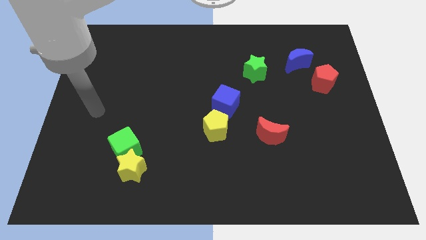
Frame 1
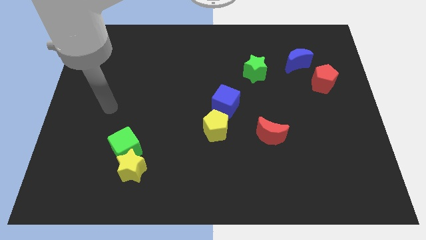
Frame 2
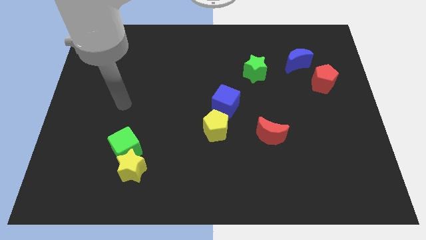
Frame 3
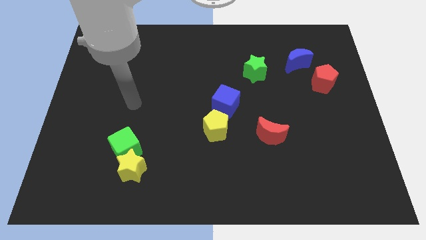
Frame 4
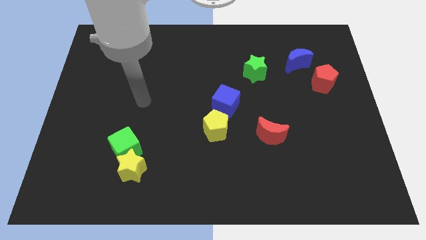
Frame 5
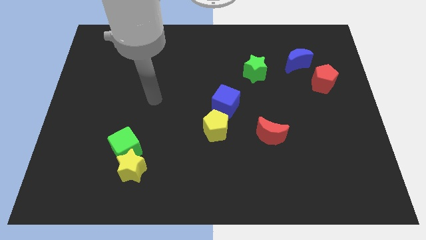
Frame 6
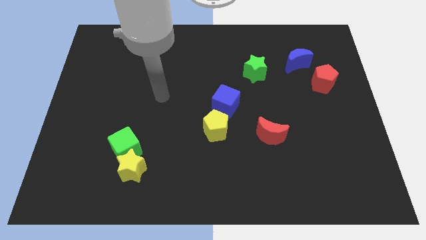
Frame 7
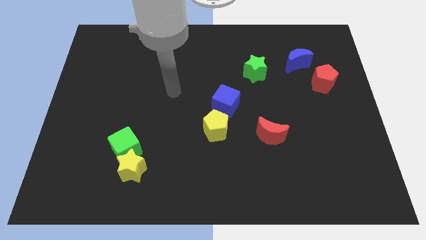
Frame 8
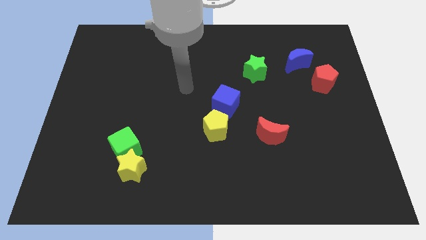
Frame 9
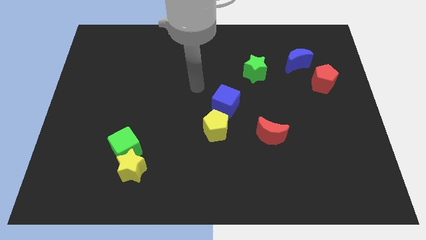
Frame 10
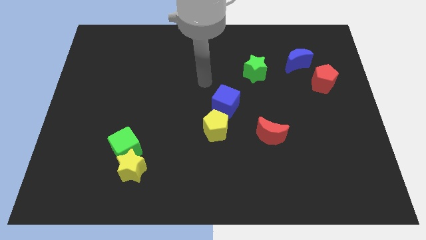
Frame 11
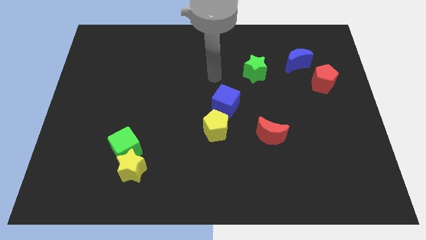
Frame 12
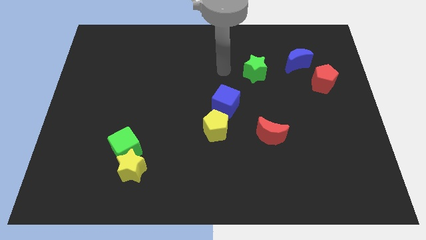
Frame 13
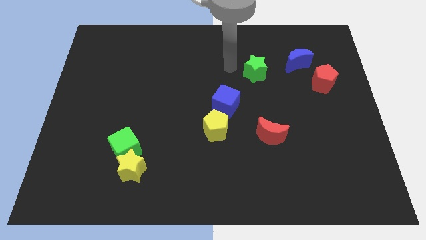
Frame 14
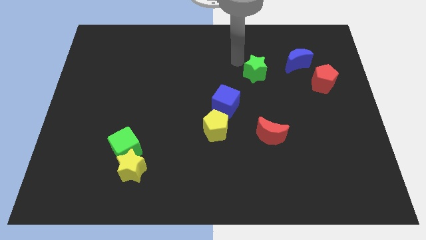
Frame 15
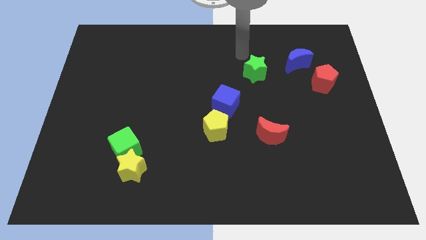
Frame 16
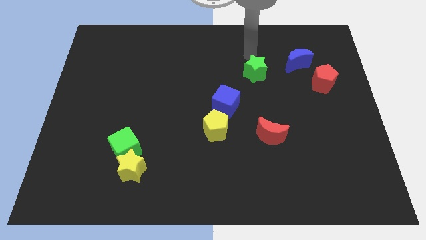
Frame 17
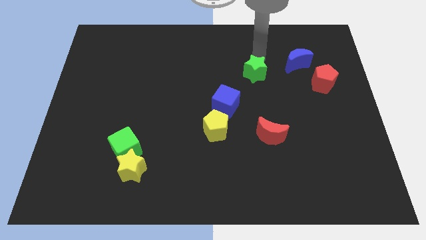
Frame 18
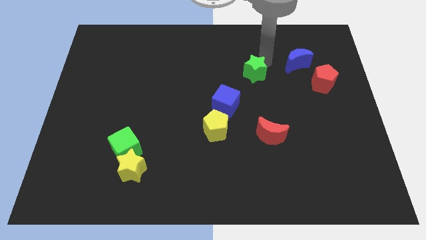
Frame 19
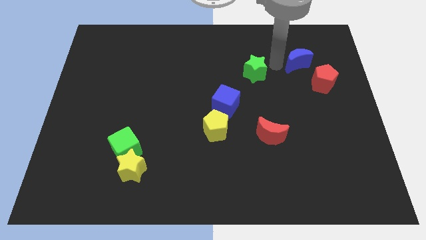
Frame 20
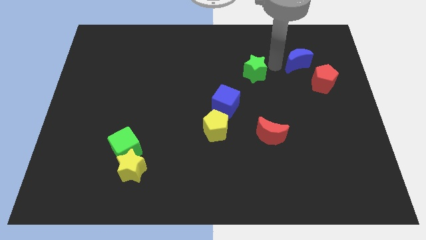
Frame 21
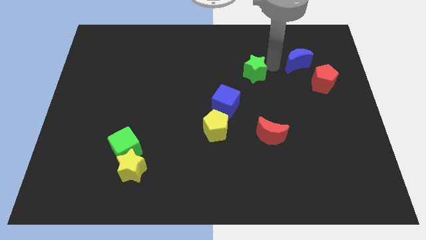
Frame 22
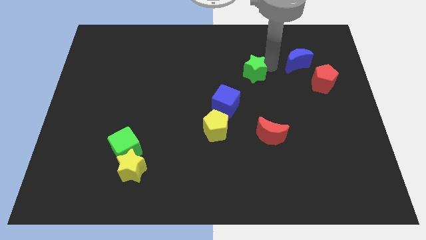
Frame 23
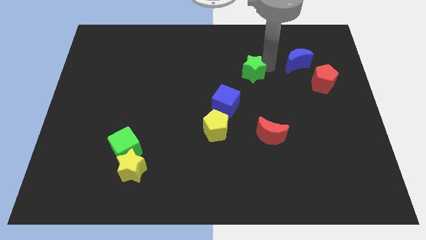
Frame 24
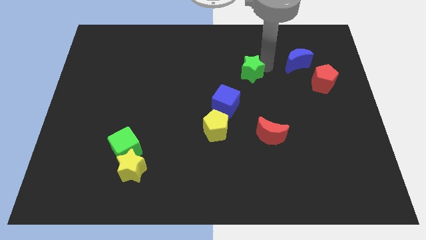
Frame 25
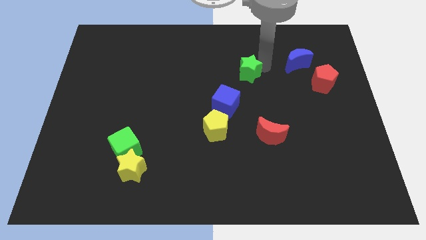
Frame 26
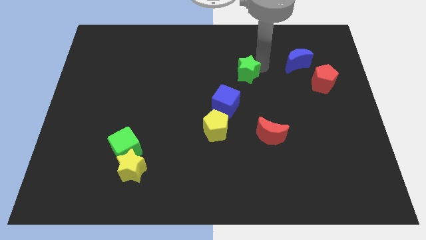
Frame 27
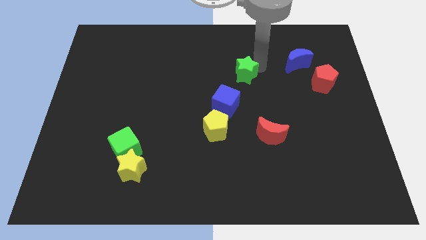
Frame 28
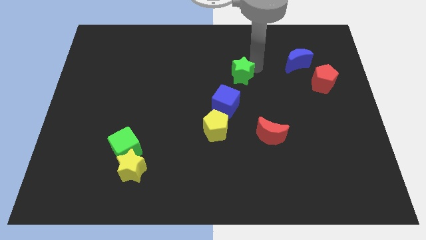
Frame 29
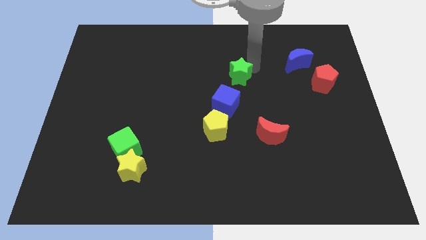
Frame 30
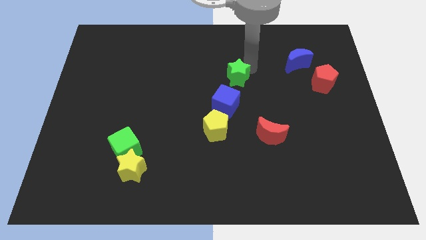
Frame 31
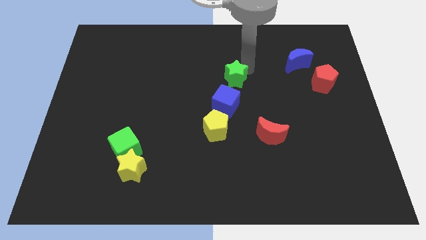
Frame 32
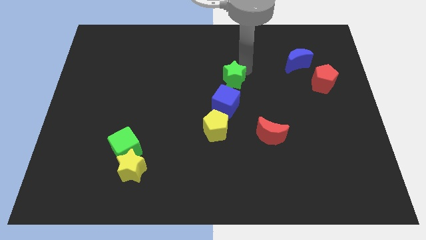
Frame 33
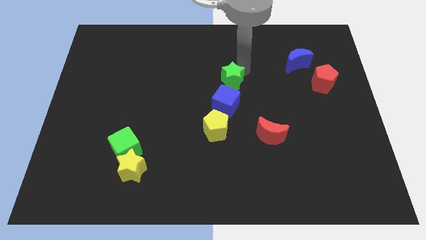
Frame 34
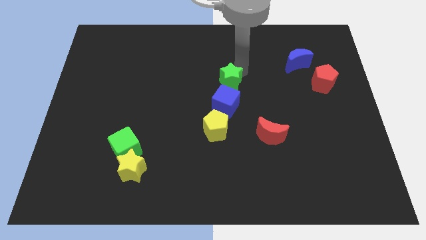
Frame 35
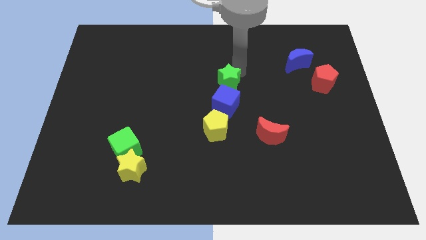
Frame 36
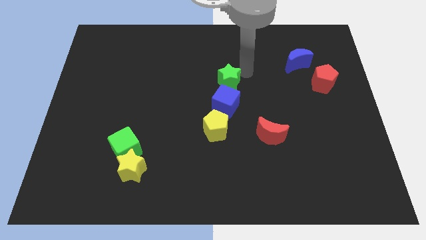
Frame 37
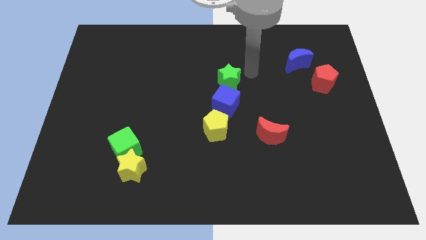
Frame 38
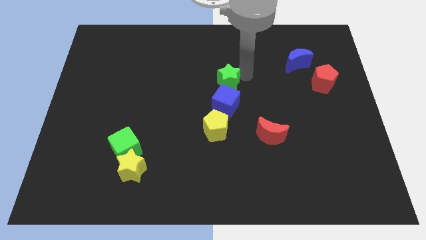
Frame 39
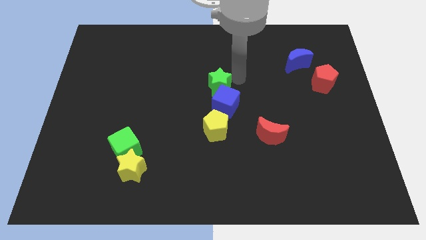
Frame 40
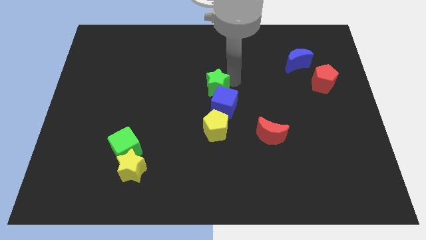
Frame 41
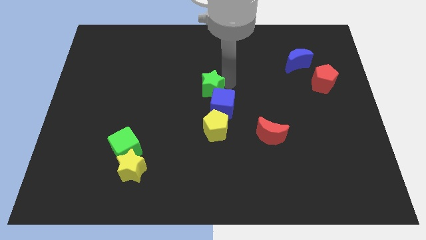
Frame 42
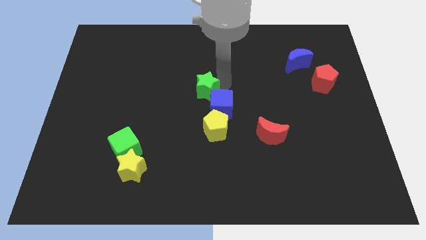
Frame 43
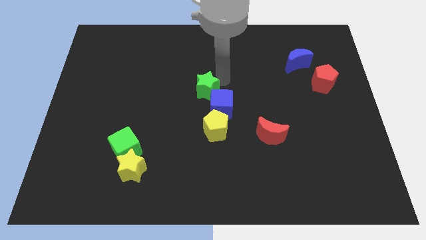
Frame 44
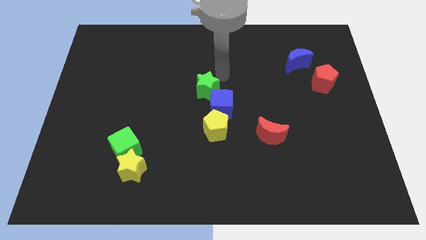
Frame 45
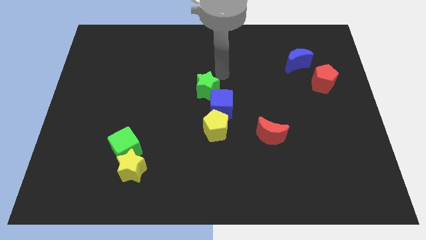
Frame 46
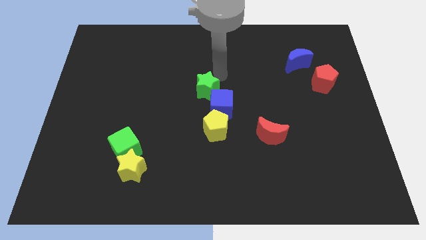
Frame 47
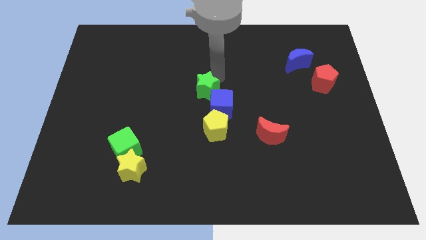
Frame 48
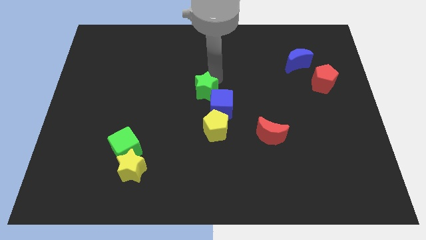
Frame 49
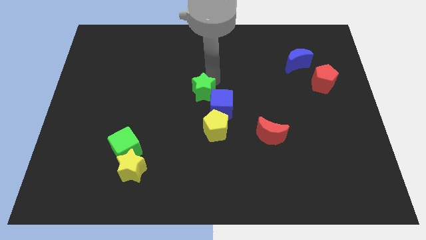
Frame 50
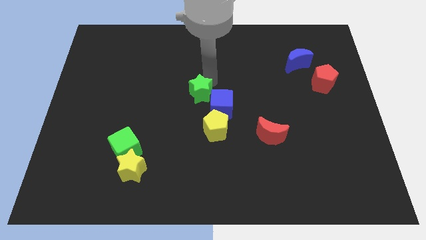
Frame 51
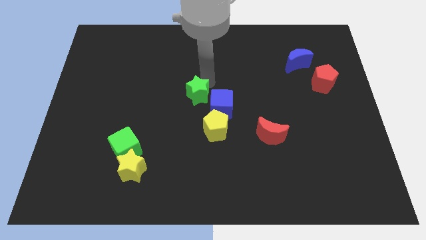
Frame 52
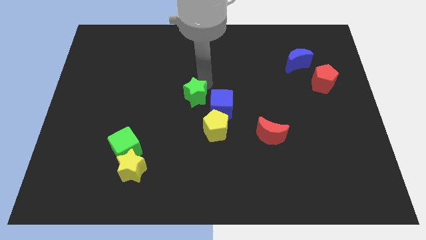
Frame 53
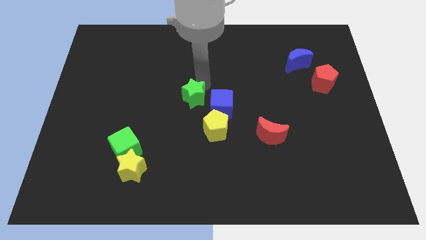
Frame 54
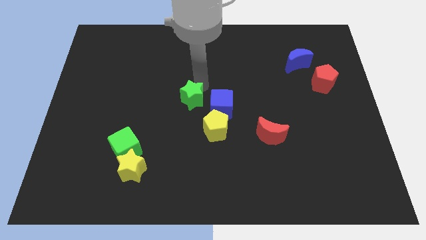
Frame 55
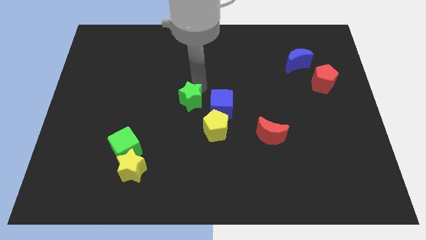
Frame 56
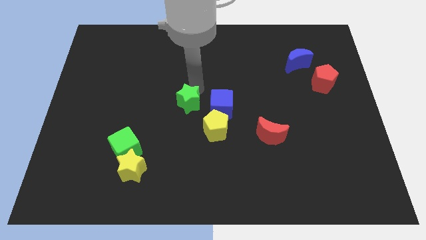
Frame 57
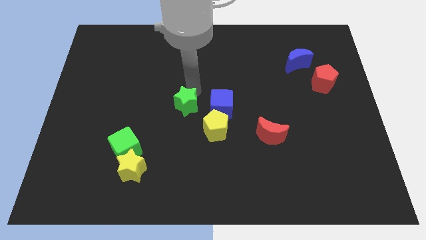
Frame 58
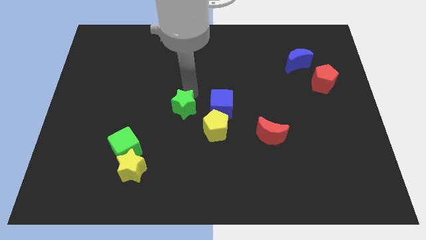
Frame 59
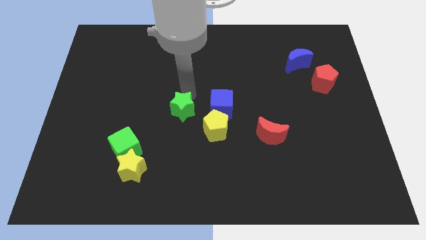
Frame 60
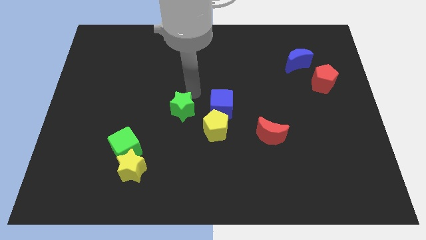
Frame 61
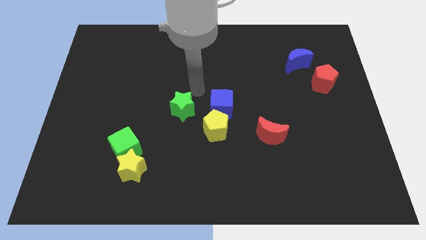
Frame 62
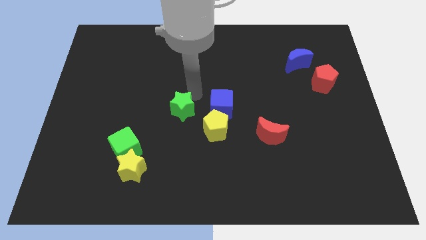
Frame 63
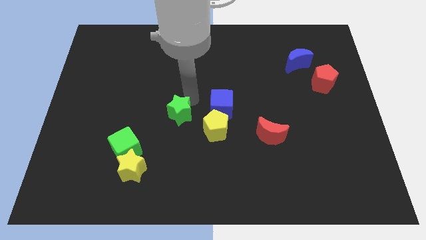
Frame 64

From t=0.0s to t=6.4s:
slide the green star to the left of the yellow pentagon

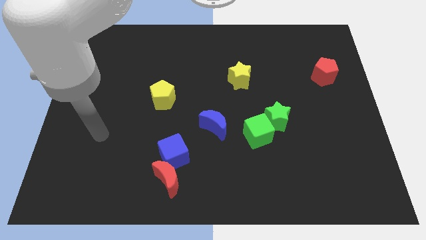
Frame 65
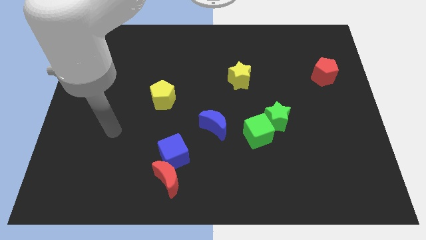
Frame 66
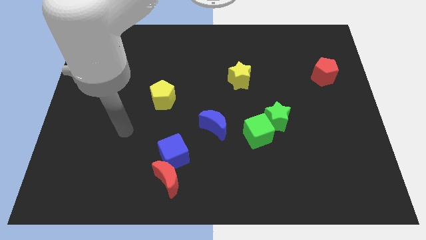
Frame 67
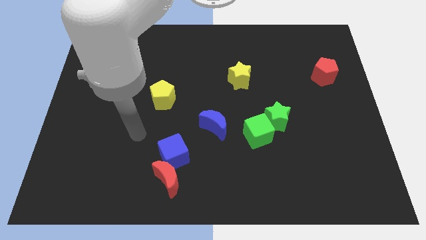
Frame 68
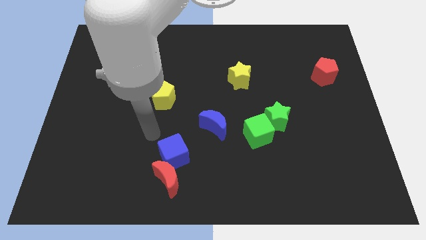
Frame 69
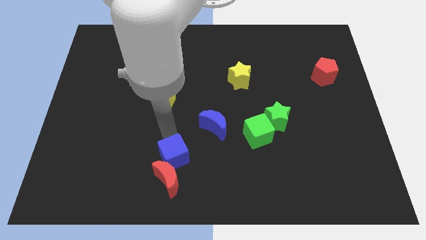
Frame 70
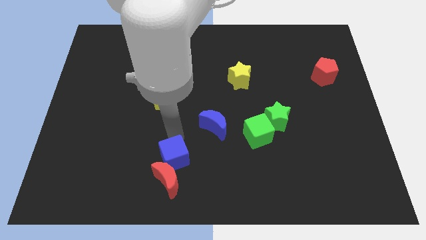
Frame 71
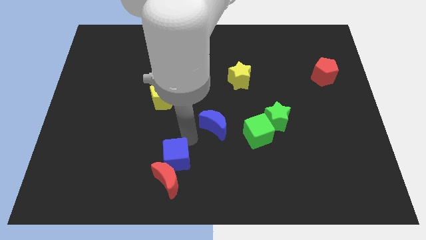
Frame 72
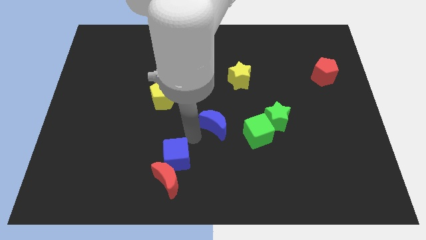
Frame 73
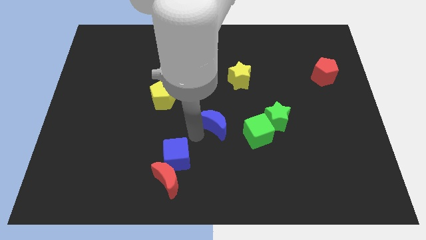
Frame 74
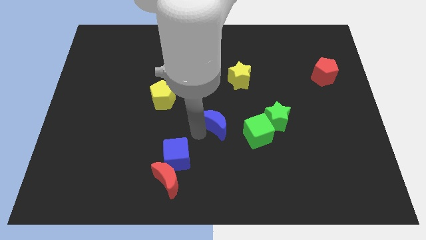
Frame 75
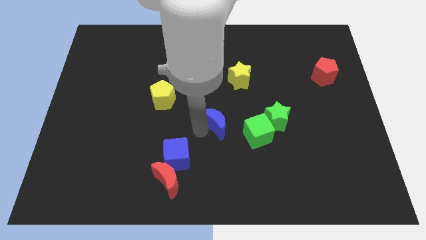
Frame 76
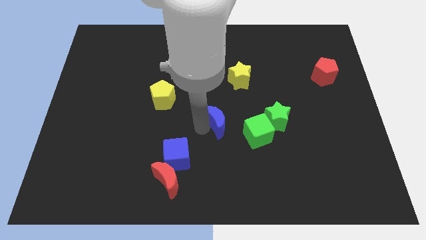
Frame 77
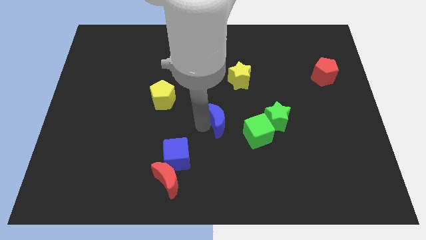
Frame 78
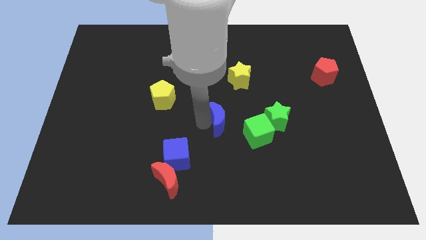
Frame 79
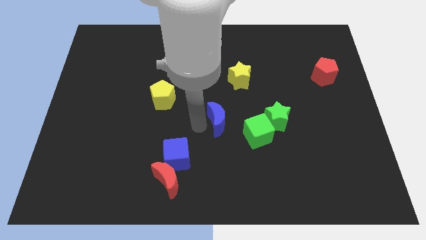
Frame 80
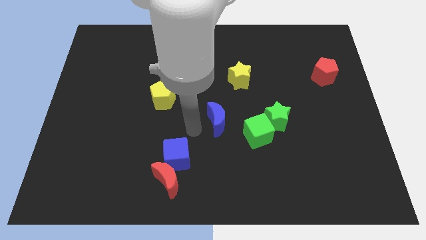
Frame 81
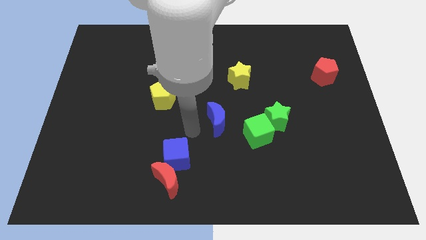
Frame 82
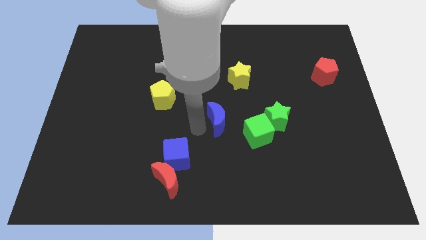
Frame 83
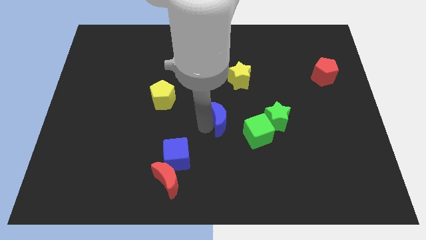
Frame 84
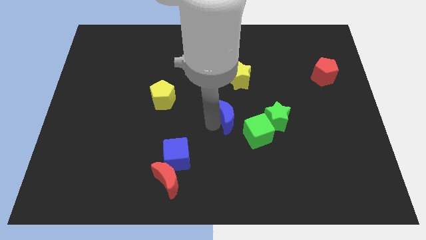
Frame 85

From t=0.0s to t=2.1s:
slide the blue moon below the yellow star

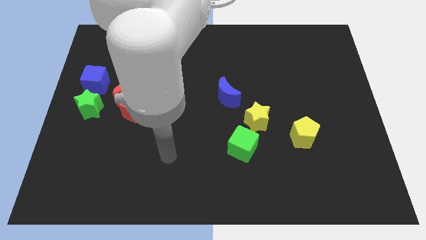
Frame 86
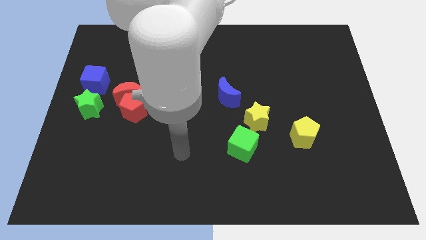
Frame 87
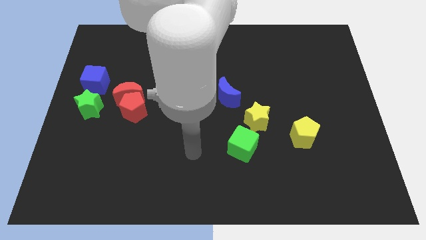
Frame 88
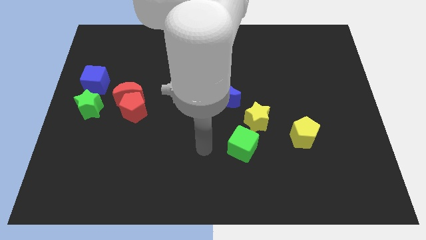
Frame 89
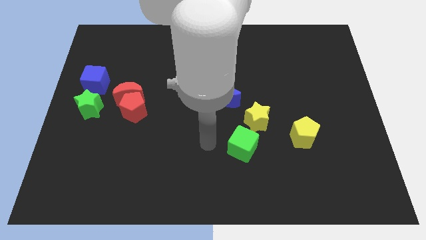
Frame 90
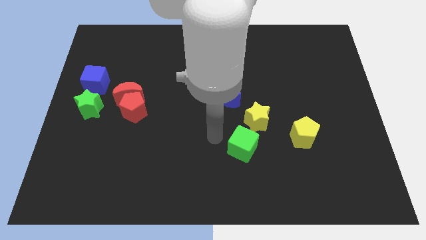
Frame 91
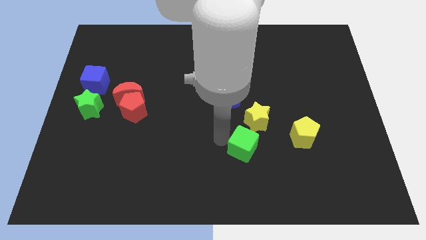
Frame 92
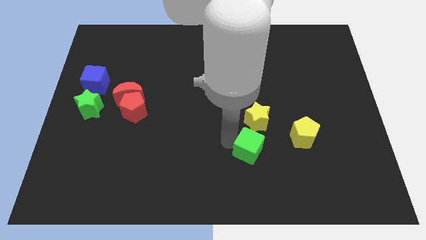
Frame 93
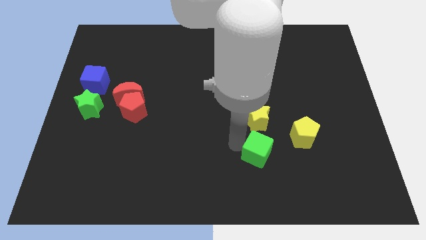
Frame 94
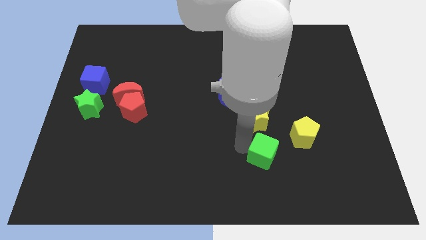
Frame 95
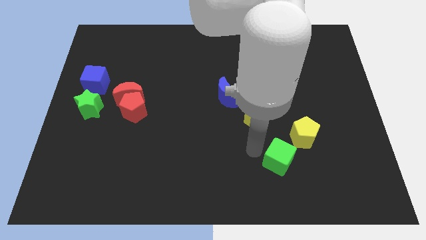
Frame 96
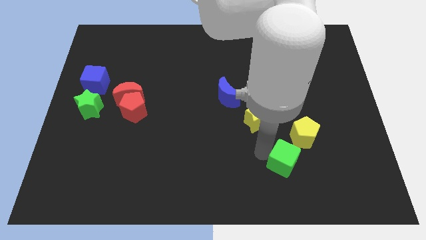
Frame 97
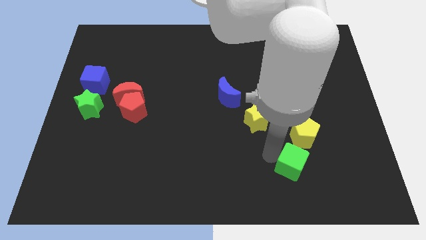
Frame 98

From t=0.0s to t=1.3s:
move the green cube to the bottom side of the yellow pentagon
